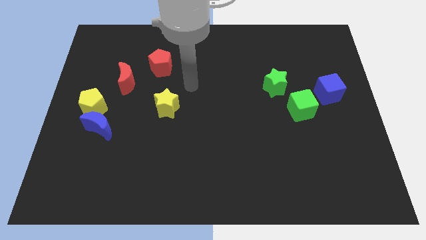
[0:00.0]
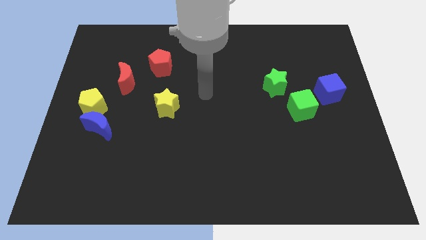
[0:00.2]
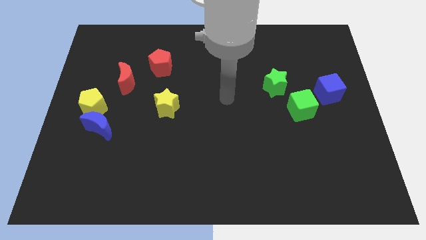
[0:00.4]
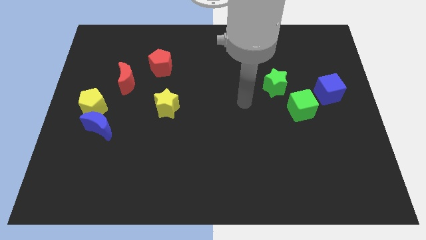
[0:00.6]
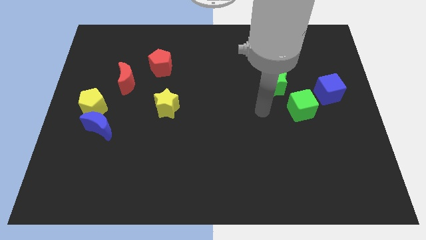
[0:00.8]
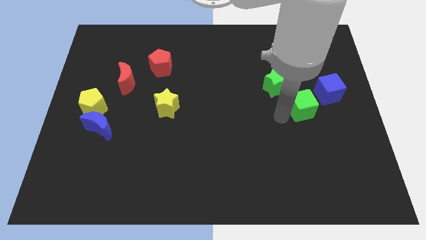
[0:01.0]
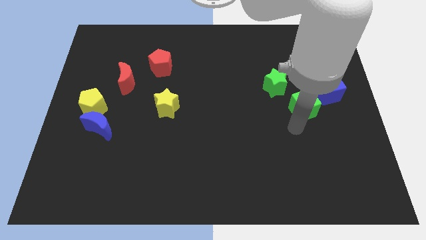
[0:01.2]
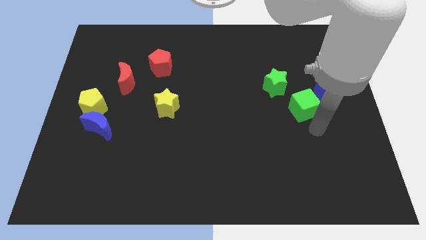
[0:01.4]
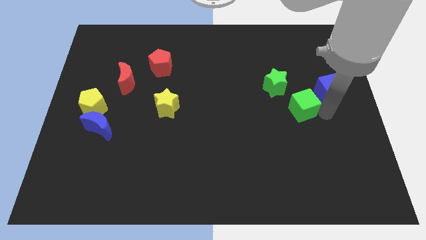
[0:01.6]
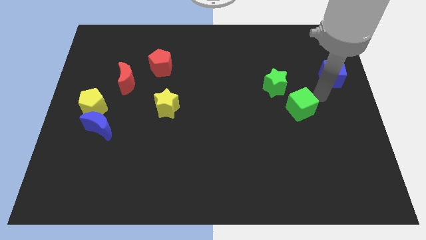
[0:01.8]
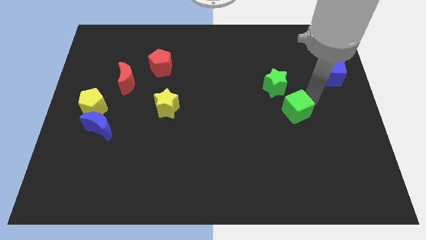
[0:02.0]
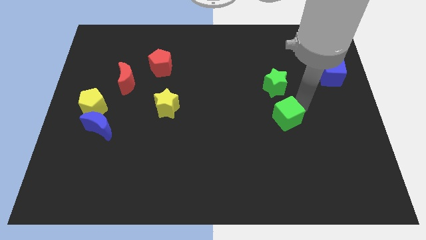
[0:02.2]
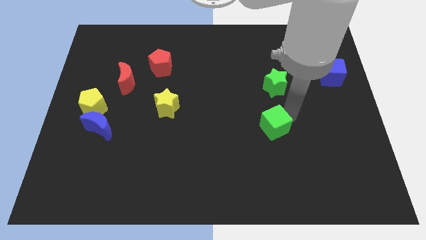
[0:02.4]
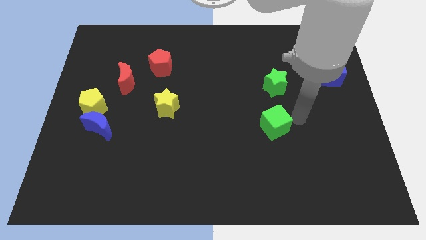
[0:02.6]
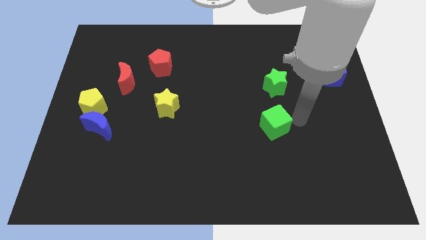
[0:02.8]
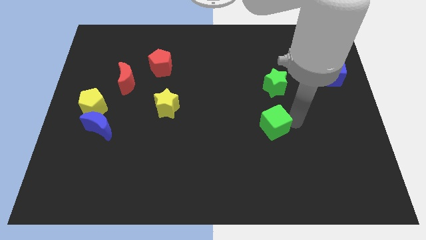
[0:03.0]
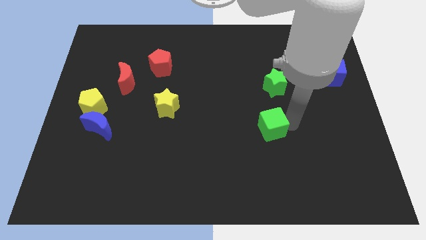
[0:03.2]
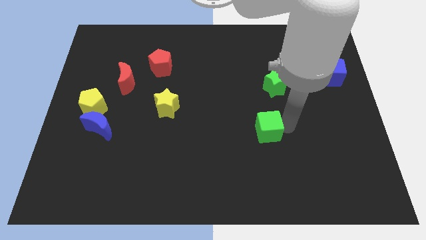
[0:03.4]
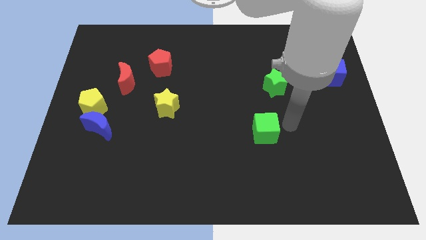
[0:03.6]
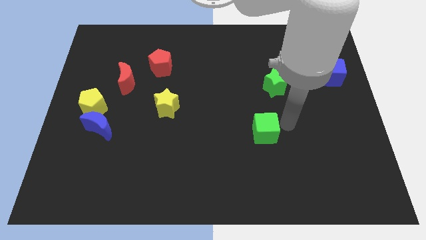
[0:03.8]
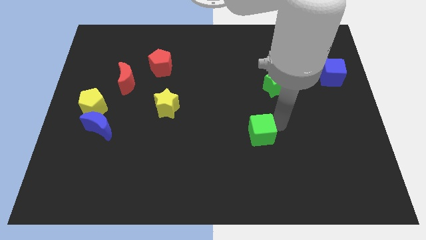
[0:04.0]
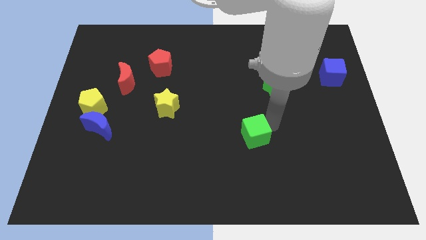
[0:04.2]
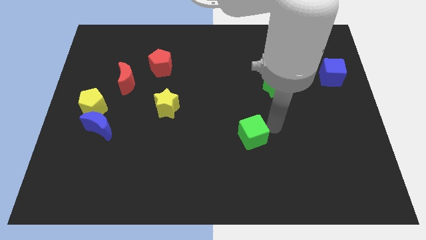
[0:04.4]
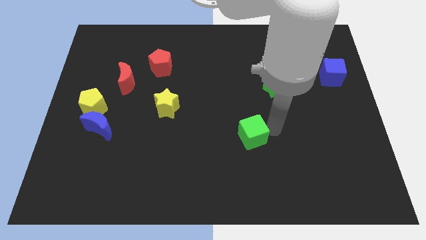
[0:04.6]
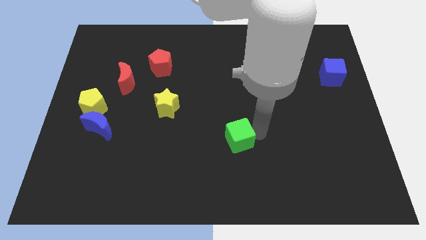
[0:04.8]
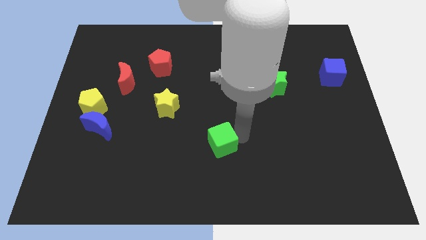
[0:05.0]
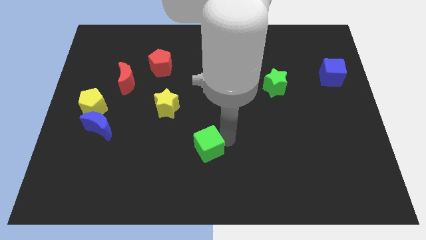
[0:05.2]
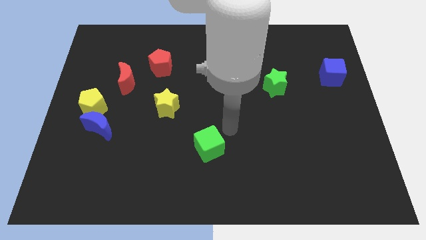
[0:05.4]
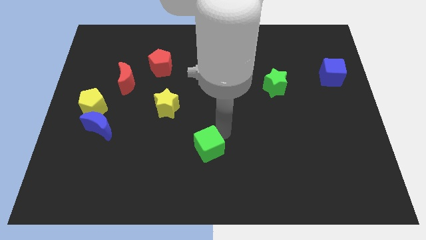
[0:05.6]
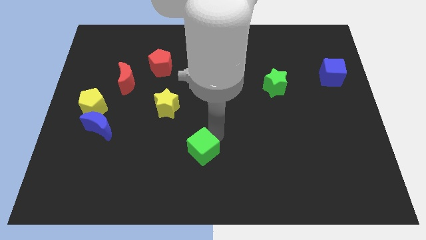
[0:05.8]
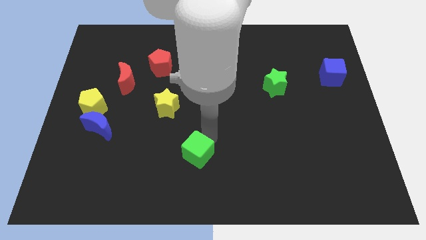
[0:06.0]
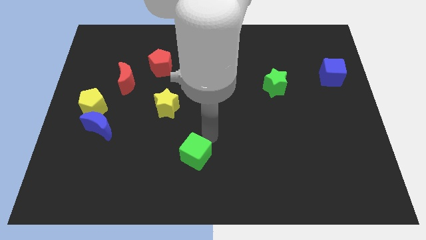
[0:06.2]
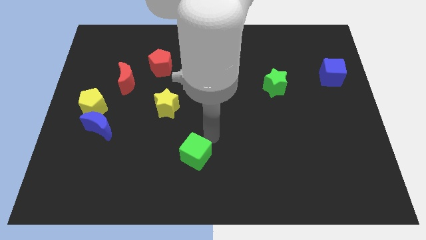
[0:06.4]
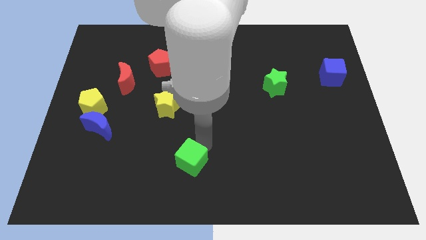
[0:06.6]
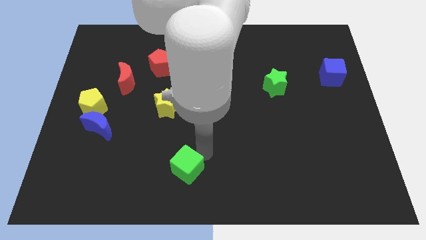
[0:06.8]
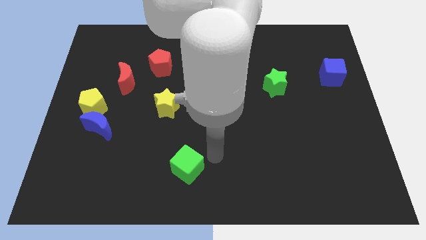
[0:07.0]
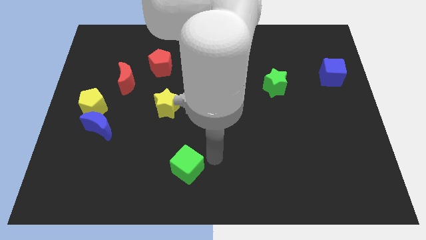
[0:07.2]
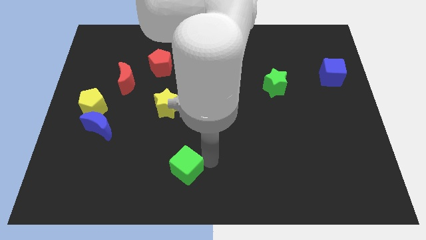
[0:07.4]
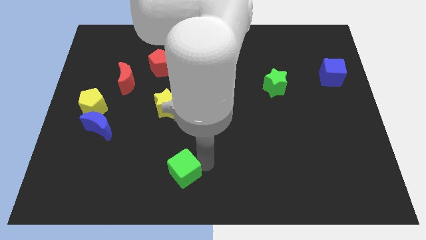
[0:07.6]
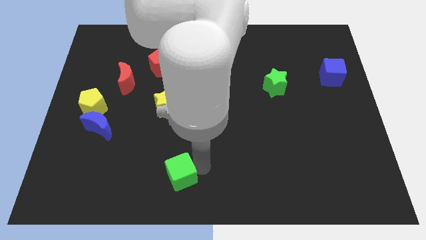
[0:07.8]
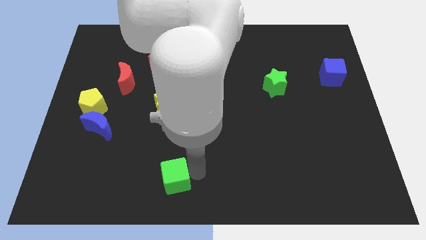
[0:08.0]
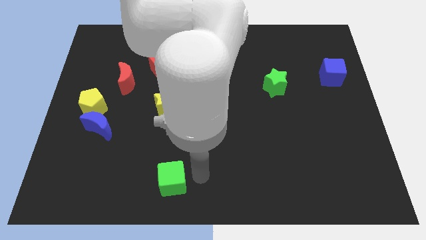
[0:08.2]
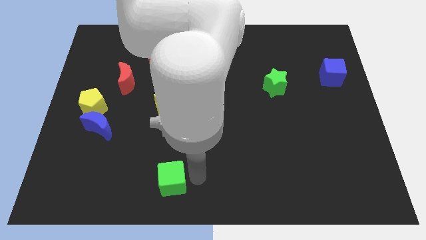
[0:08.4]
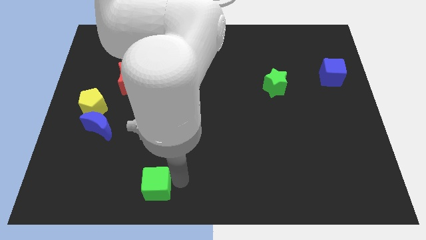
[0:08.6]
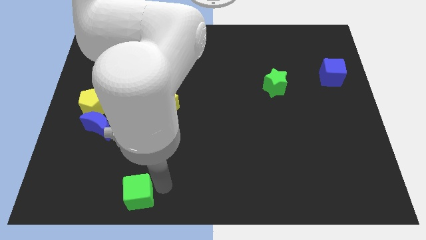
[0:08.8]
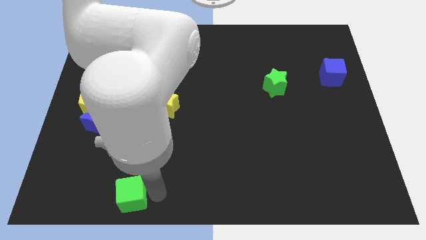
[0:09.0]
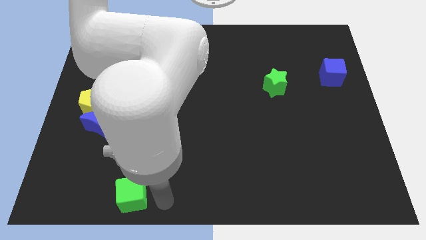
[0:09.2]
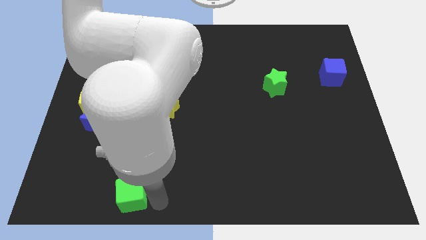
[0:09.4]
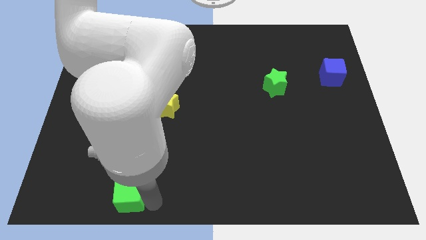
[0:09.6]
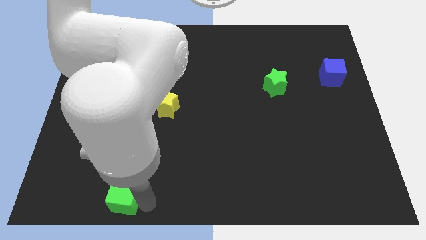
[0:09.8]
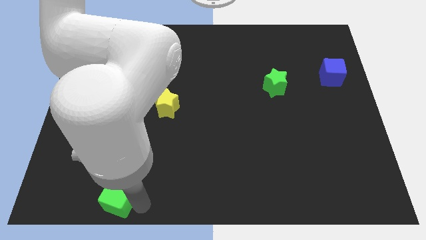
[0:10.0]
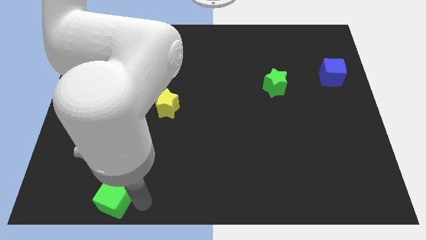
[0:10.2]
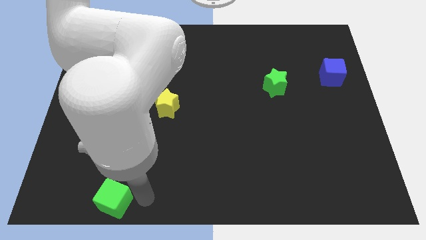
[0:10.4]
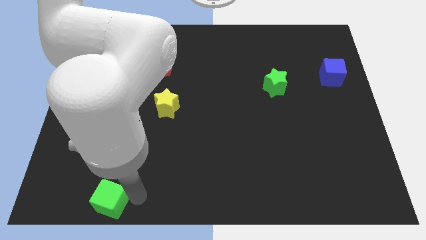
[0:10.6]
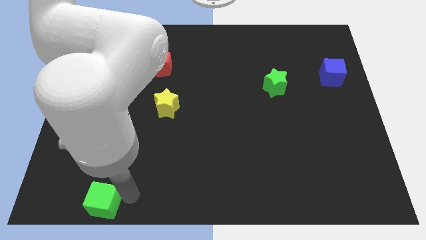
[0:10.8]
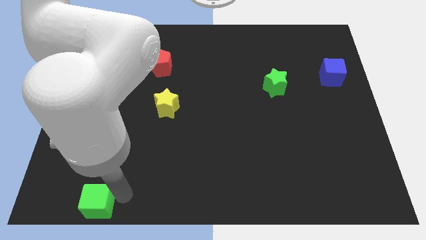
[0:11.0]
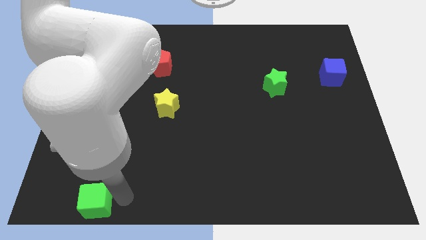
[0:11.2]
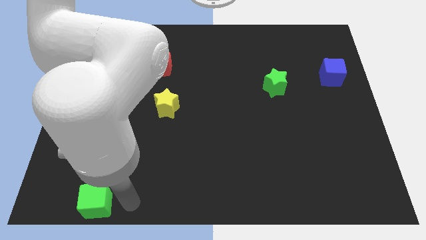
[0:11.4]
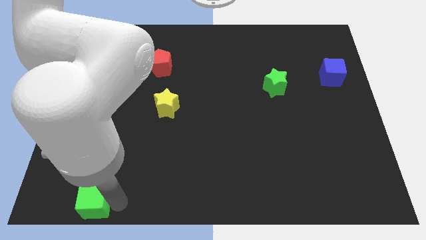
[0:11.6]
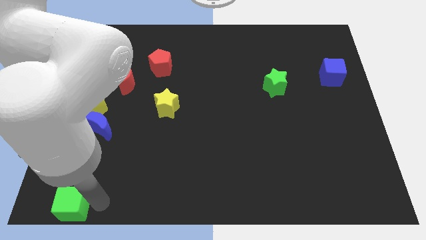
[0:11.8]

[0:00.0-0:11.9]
push the green cube to the bottom left of the board

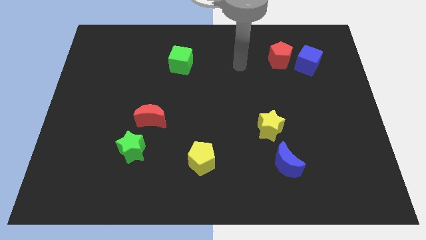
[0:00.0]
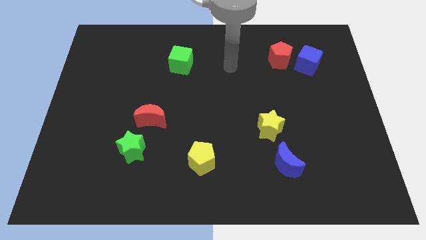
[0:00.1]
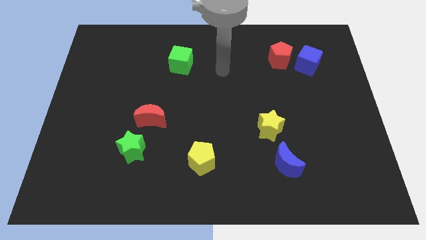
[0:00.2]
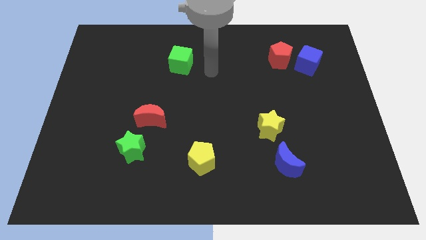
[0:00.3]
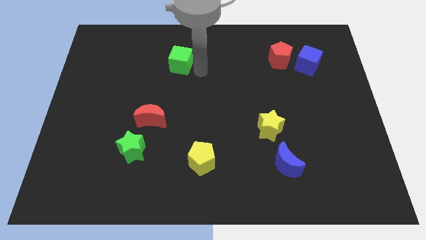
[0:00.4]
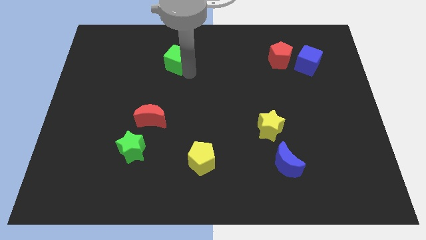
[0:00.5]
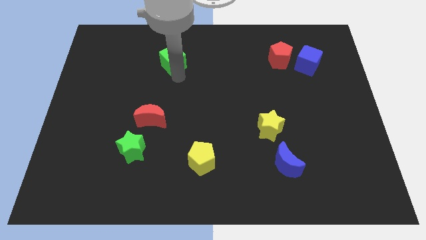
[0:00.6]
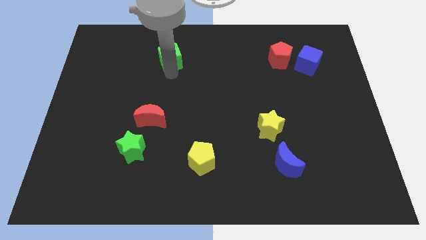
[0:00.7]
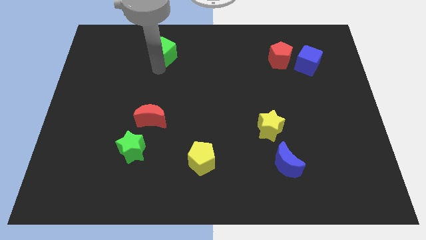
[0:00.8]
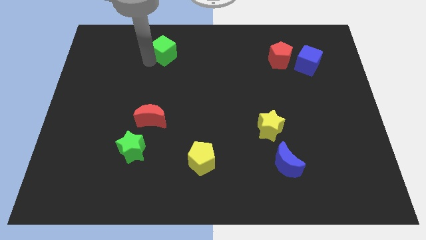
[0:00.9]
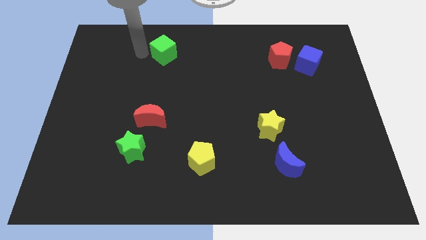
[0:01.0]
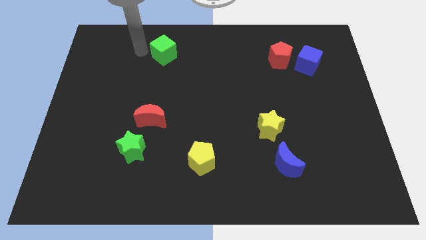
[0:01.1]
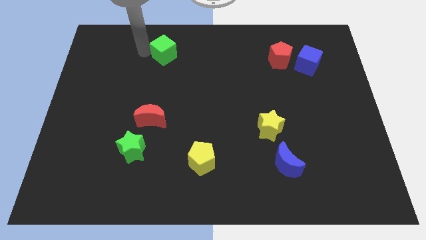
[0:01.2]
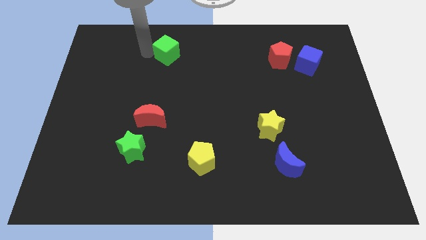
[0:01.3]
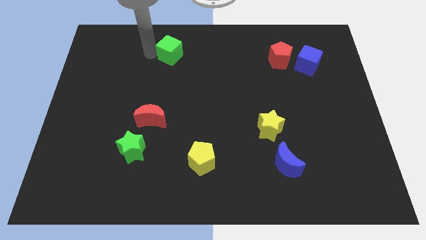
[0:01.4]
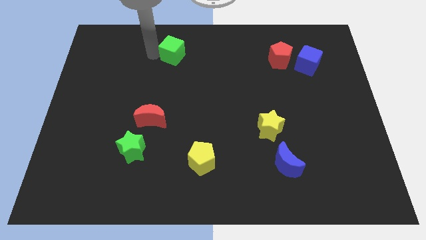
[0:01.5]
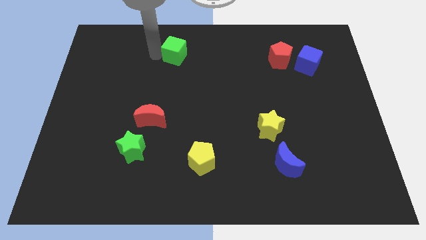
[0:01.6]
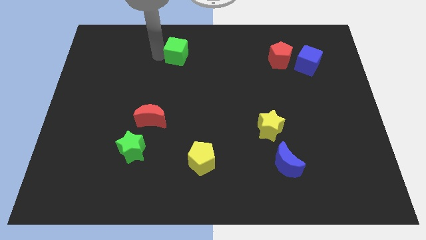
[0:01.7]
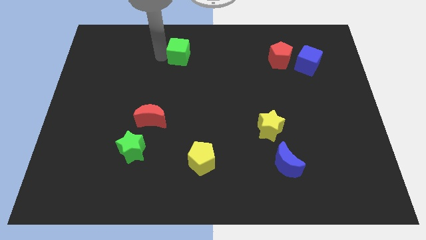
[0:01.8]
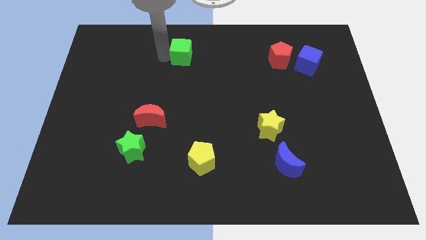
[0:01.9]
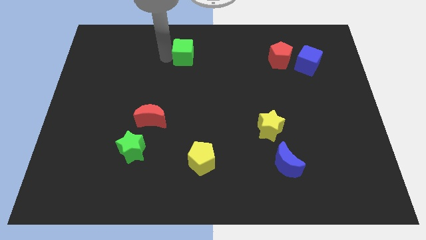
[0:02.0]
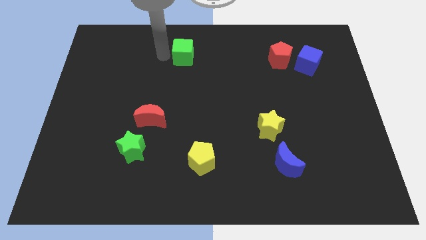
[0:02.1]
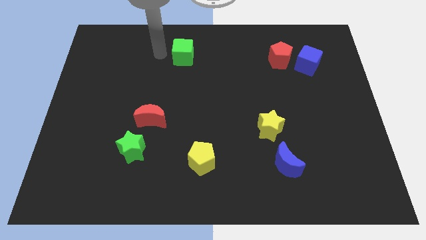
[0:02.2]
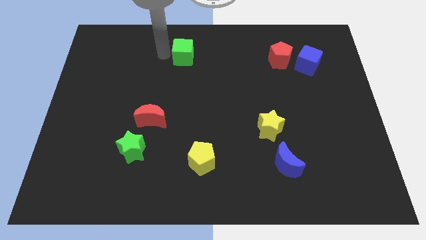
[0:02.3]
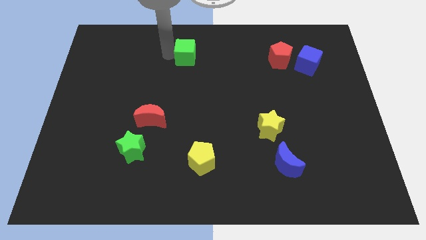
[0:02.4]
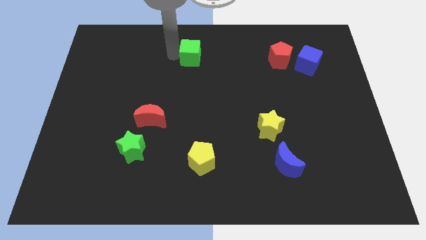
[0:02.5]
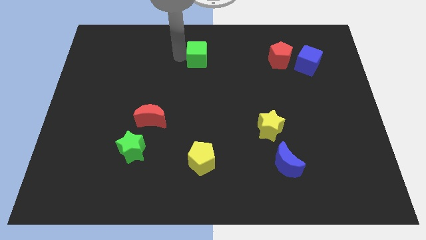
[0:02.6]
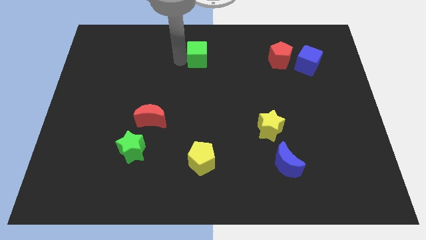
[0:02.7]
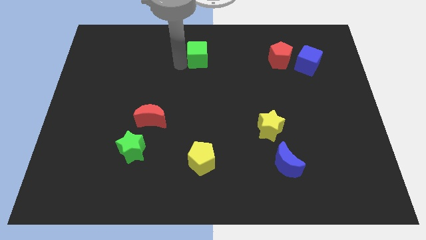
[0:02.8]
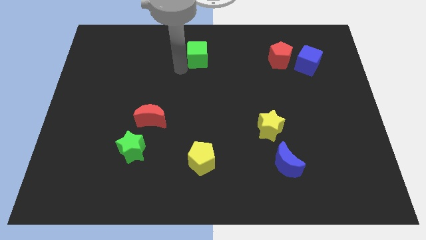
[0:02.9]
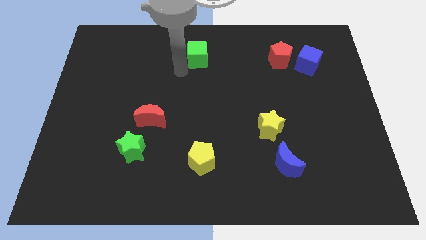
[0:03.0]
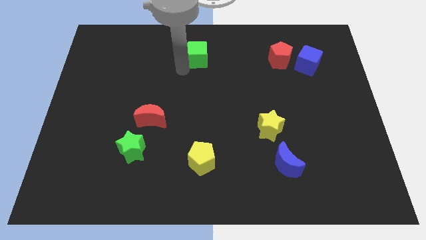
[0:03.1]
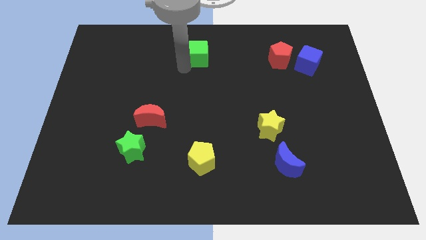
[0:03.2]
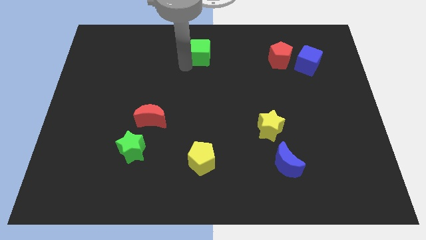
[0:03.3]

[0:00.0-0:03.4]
put the green cube to the top
